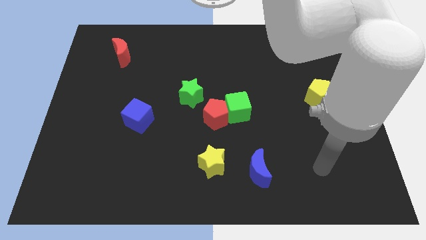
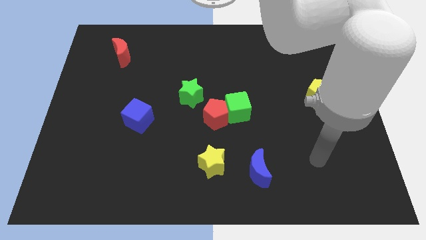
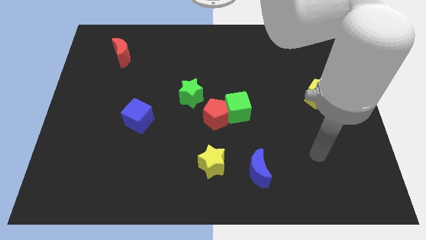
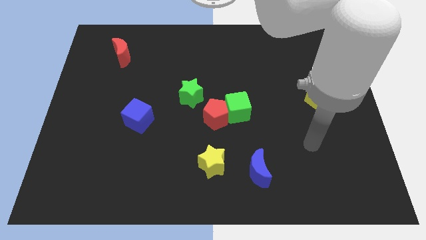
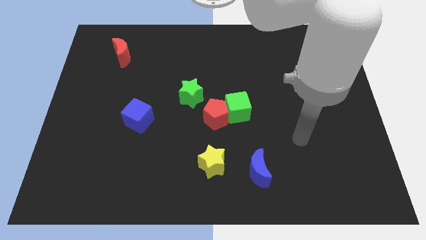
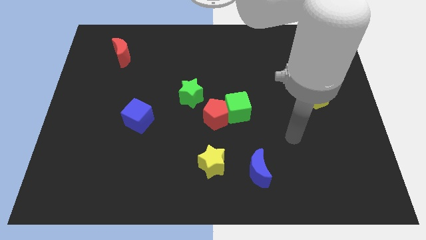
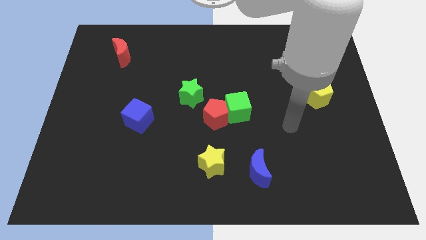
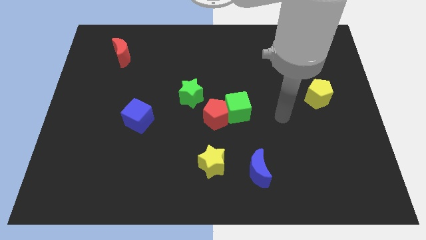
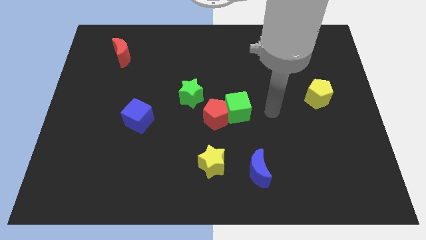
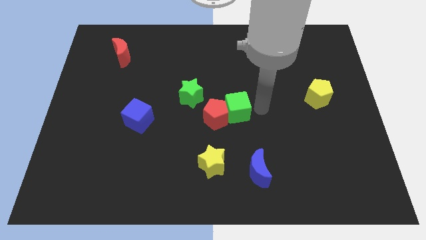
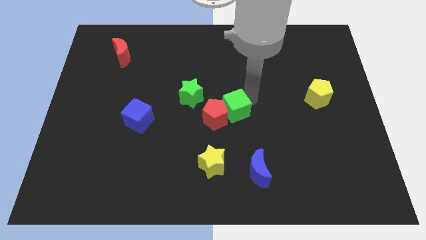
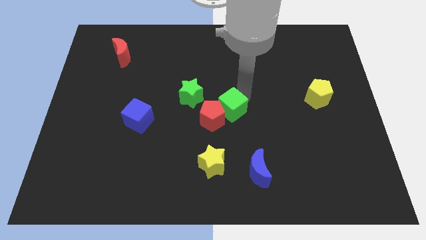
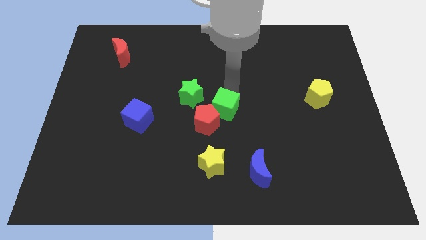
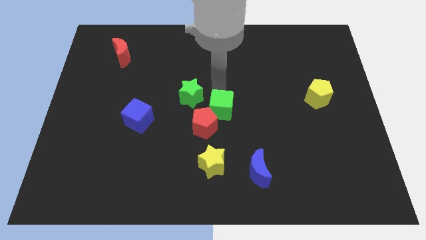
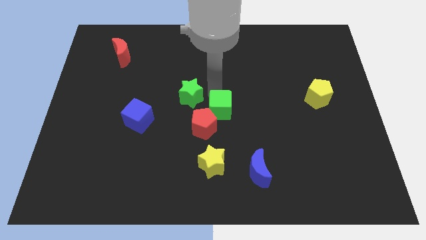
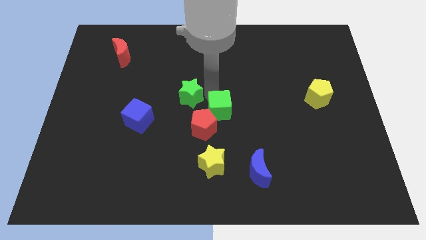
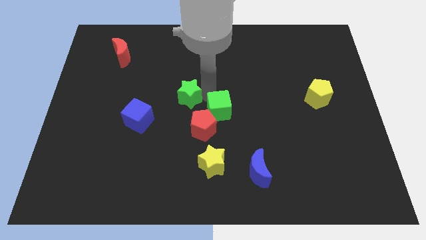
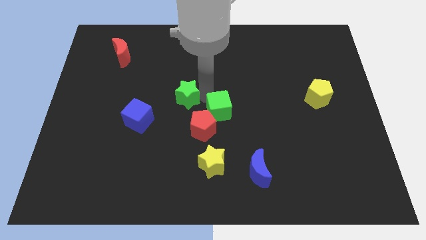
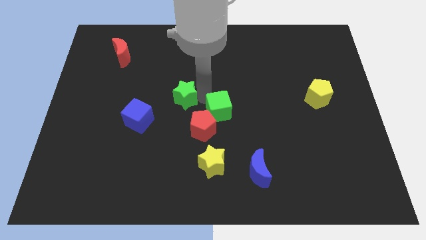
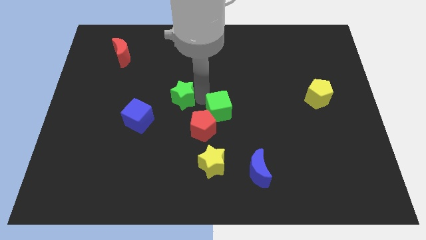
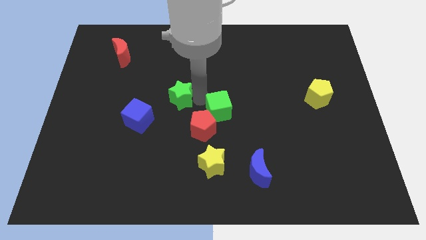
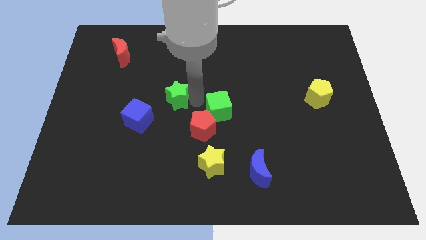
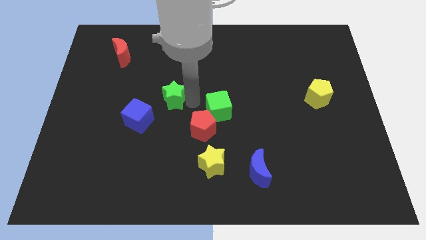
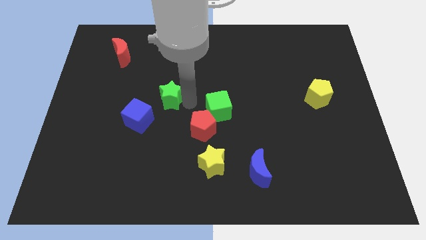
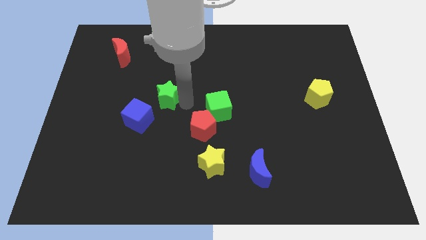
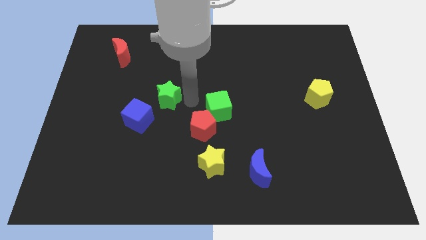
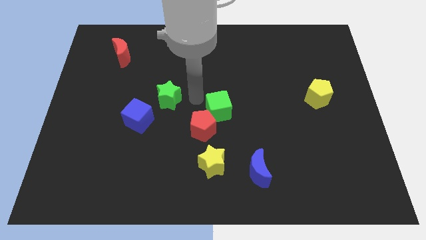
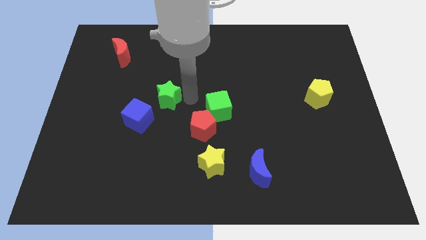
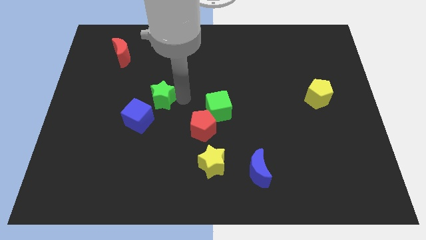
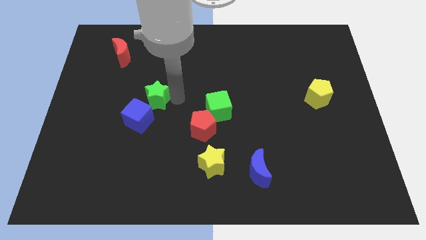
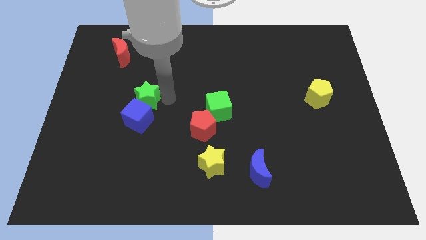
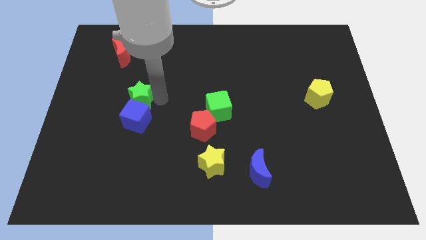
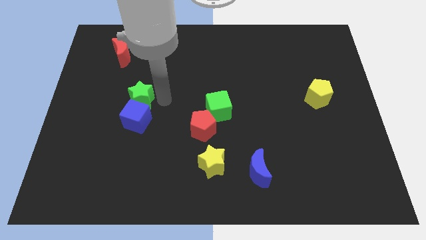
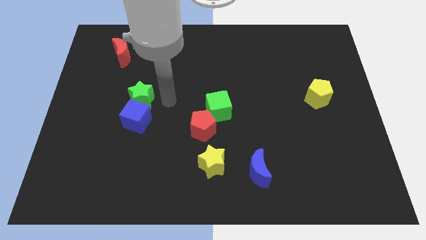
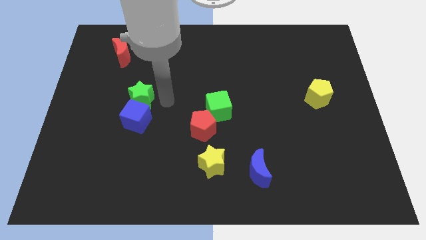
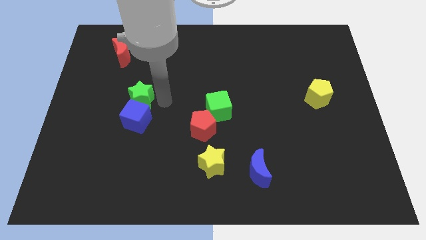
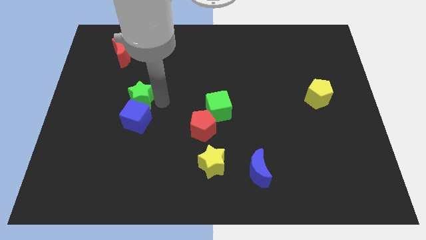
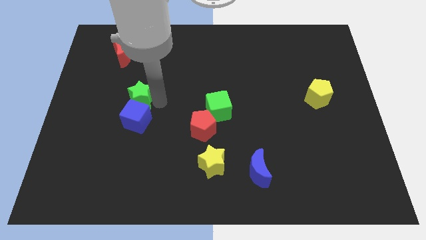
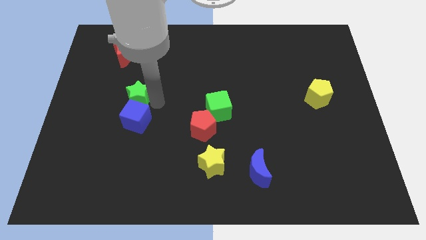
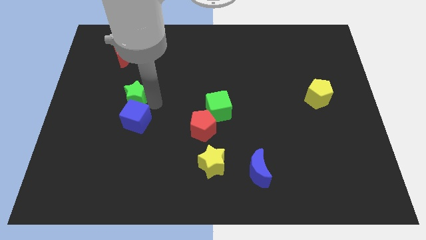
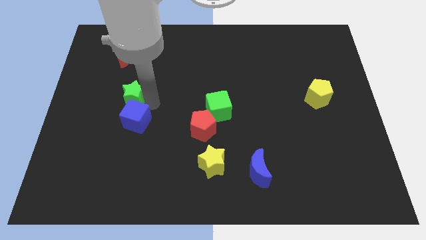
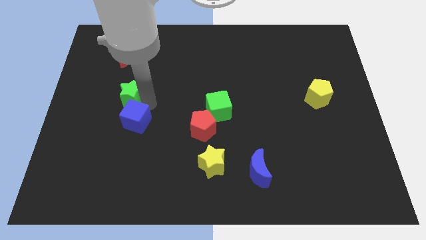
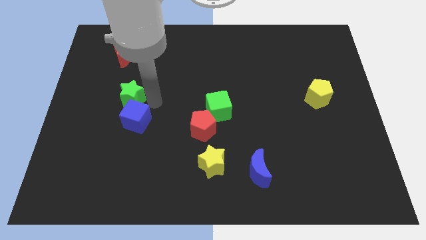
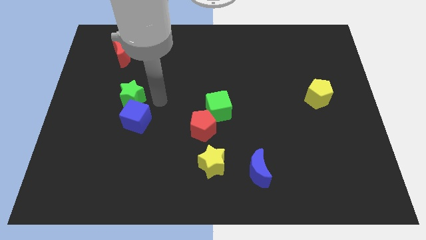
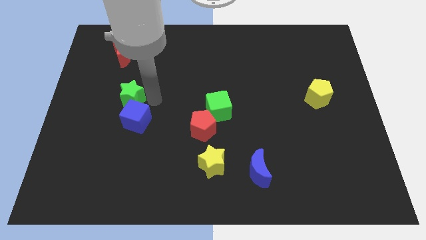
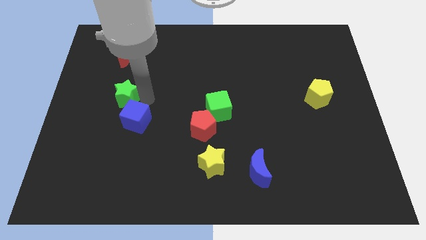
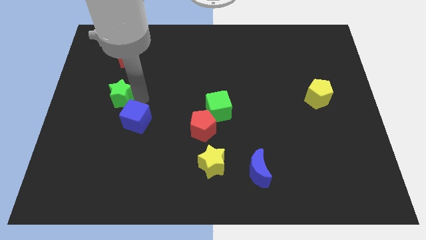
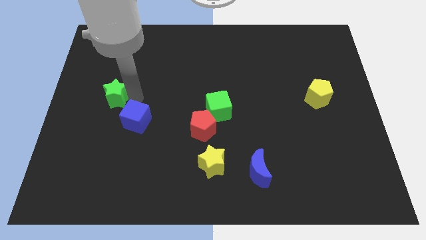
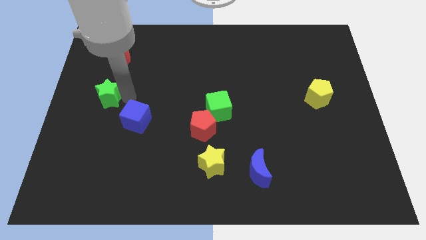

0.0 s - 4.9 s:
put the green star to the left side

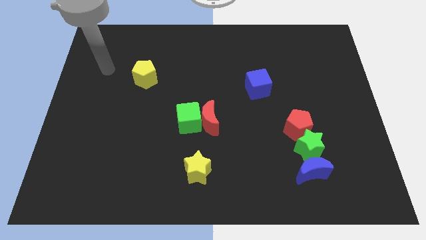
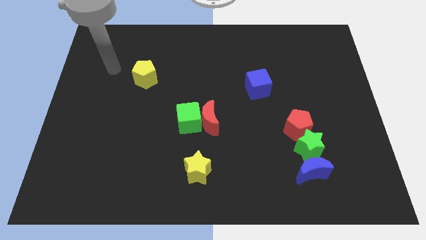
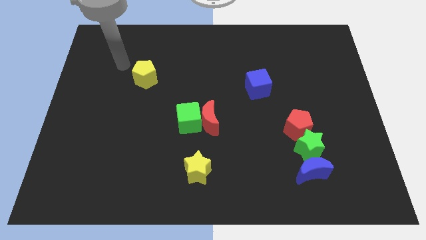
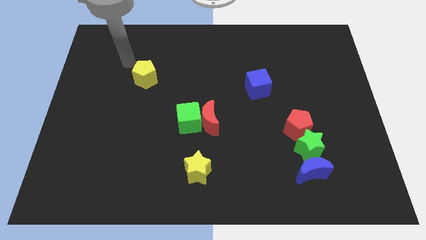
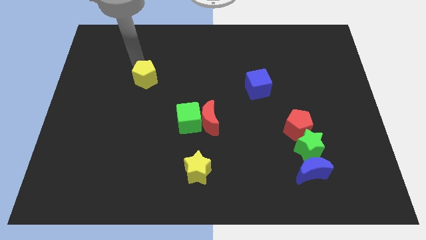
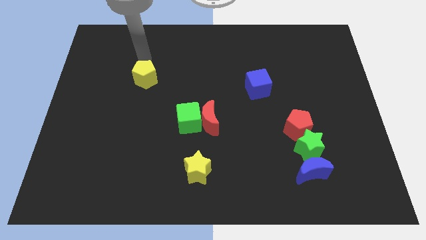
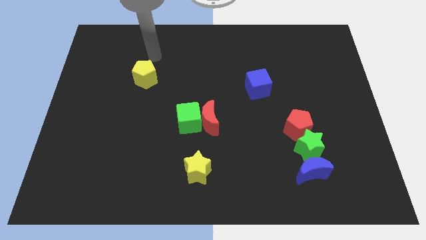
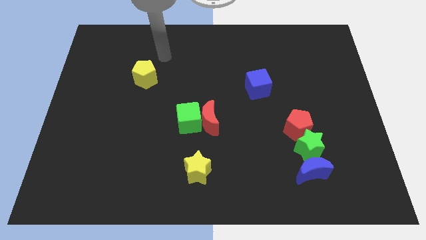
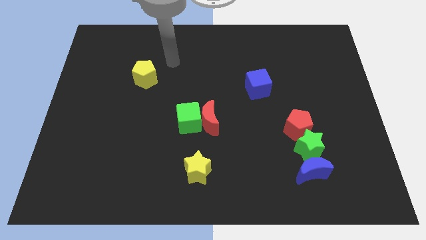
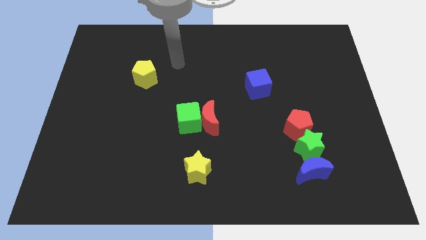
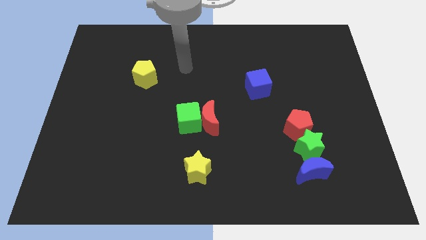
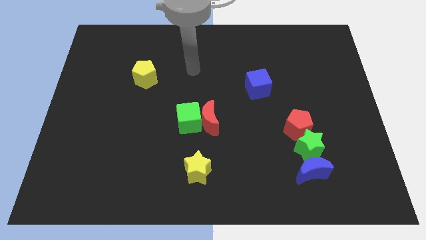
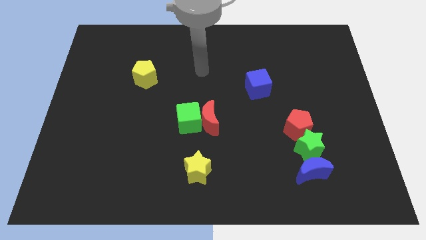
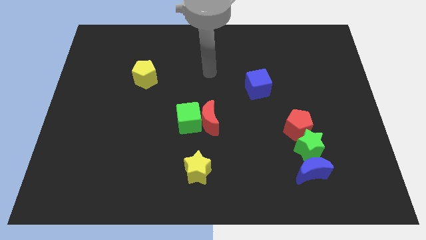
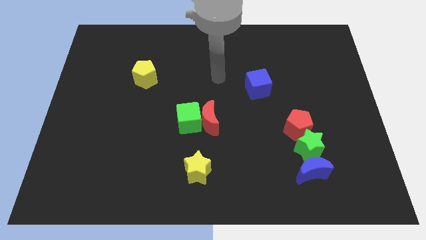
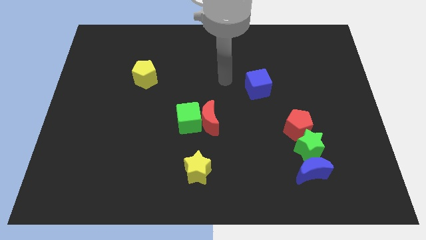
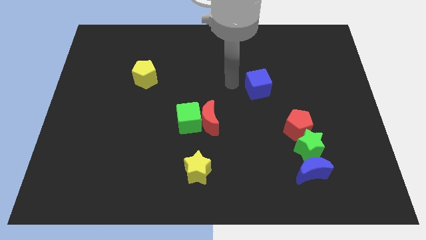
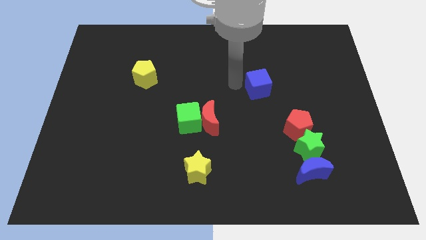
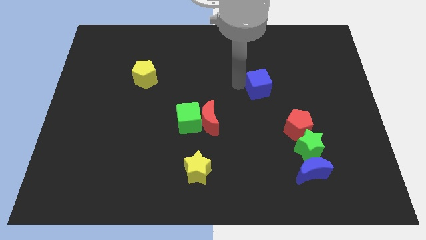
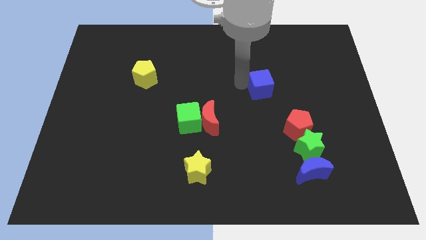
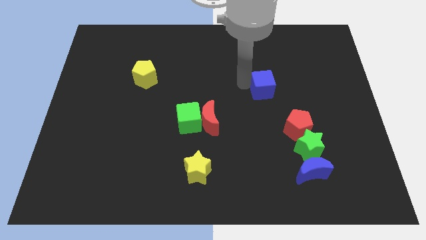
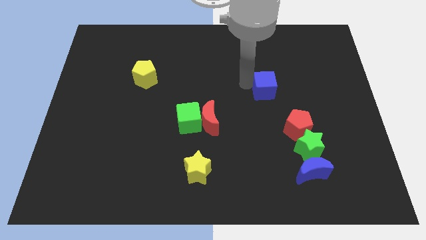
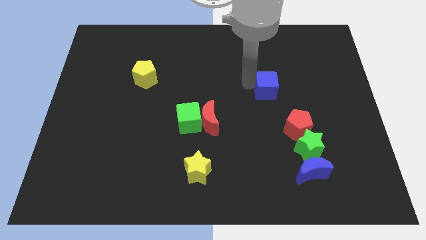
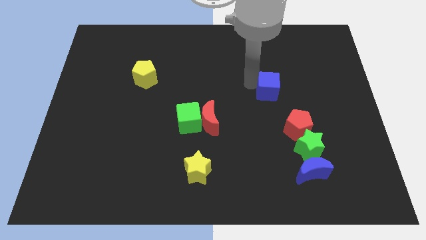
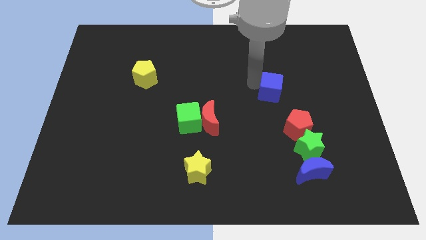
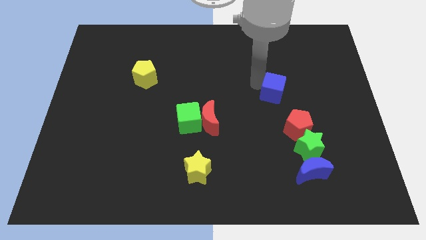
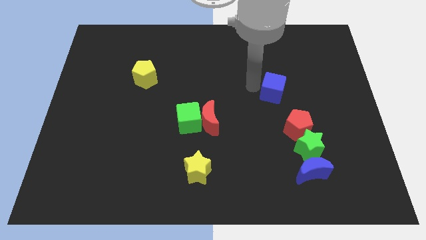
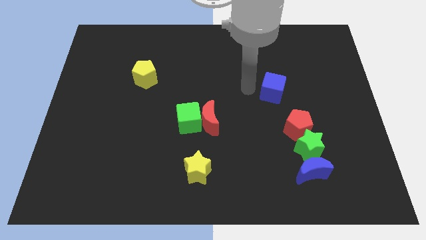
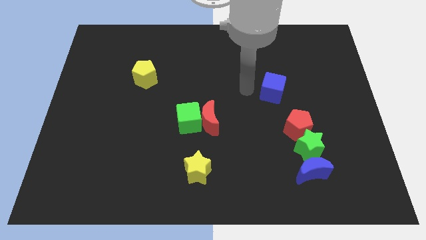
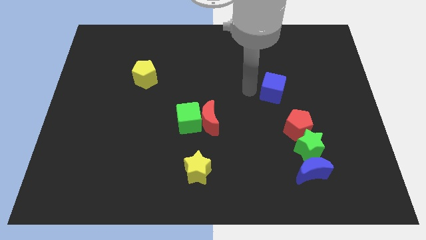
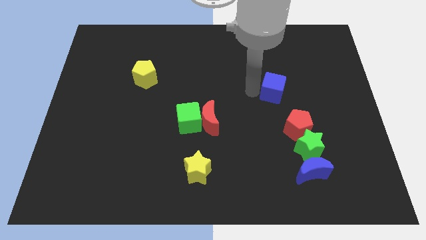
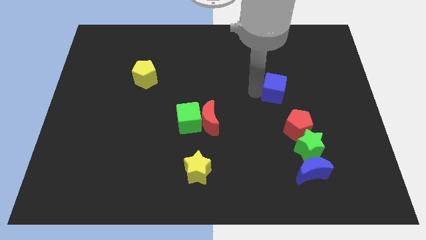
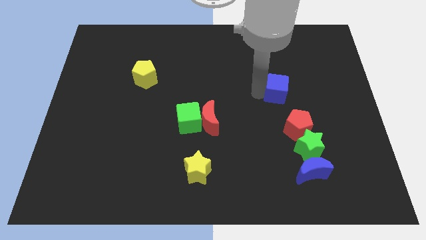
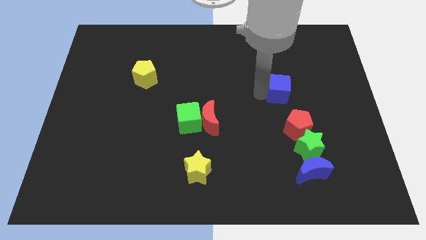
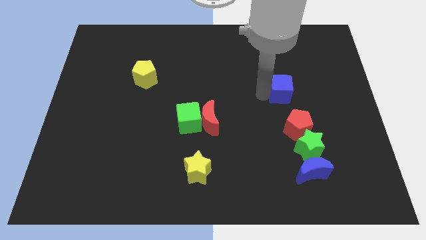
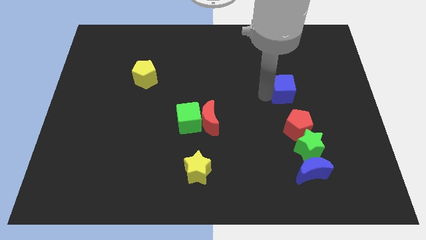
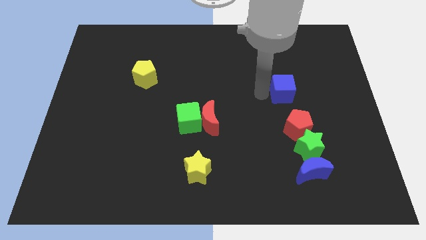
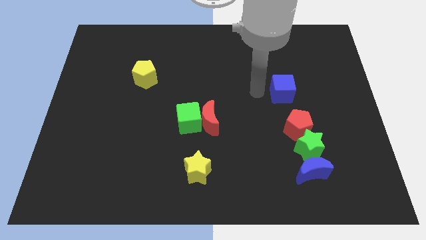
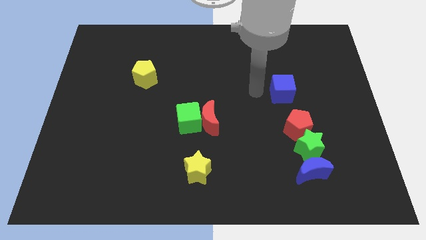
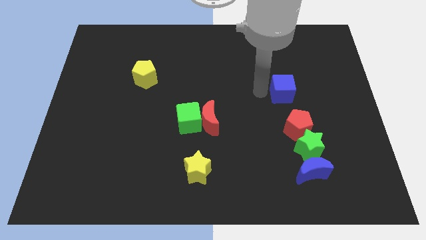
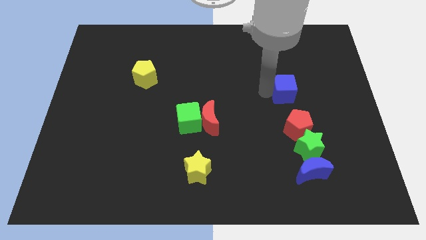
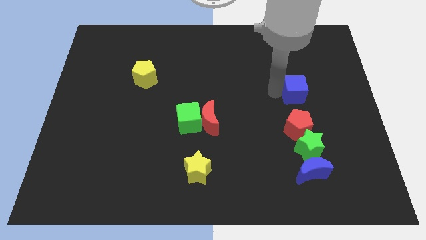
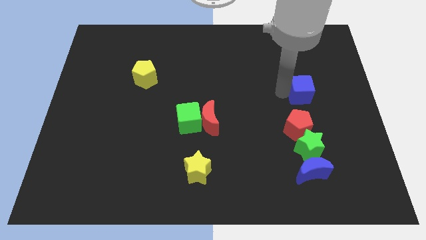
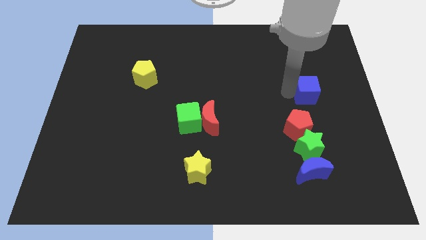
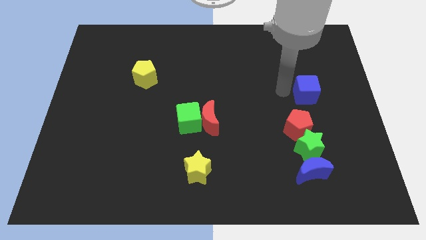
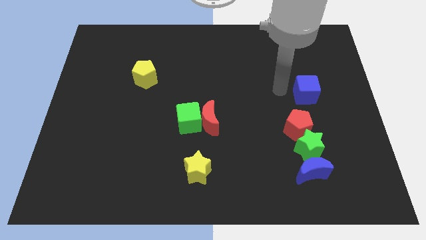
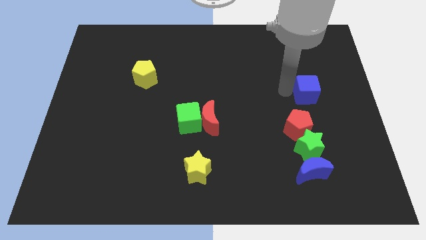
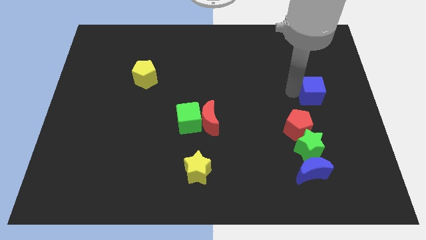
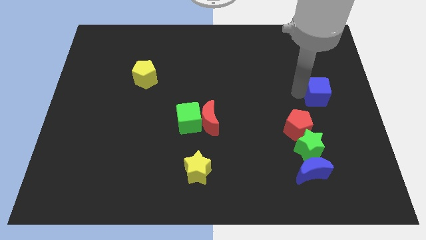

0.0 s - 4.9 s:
move the blue cube to the right side of the board
